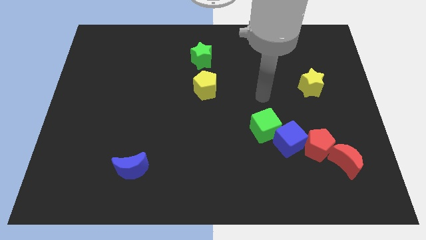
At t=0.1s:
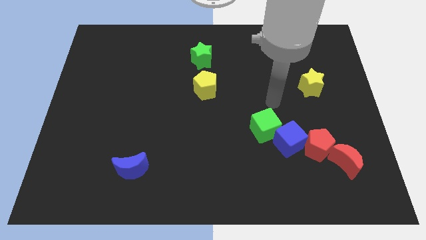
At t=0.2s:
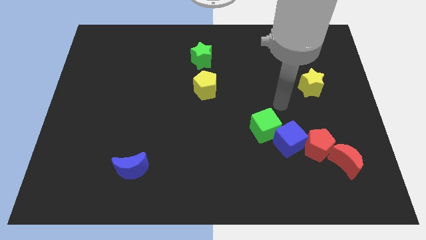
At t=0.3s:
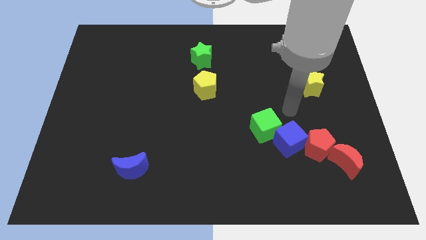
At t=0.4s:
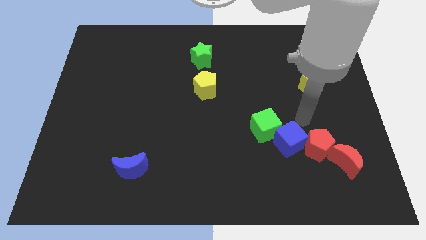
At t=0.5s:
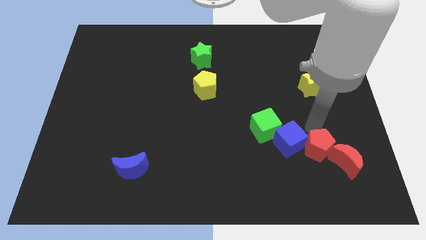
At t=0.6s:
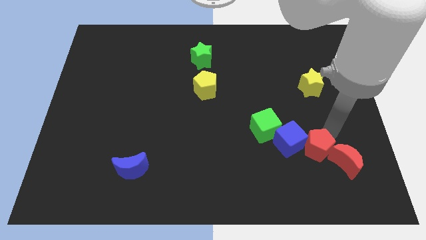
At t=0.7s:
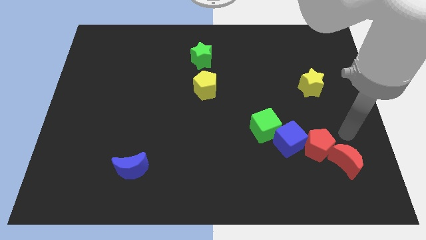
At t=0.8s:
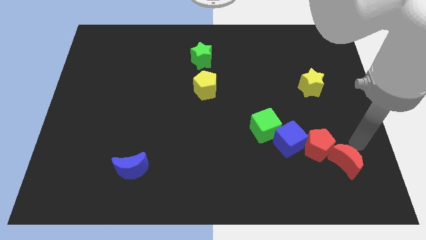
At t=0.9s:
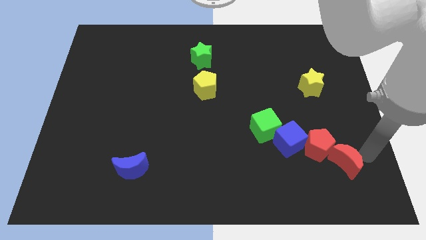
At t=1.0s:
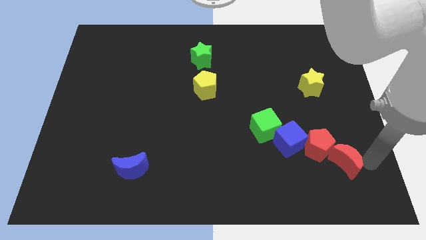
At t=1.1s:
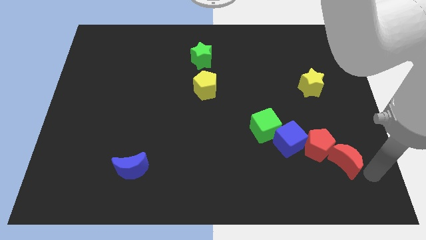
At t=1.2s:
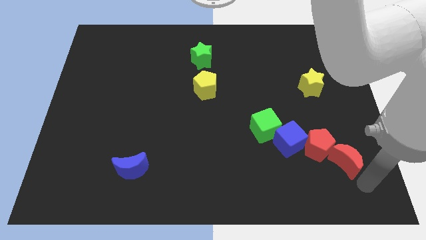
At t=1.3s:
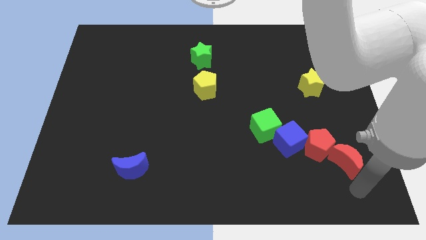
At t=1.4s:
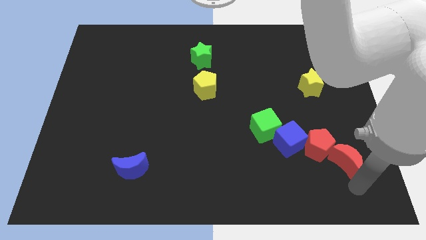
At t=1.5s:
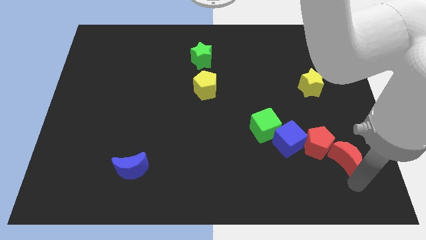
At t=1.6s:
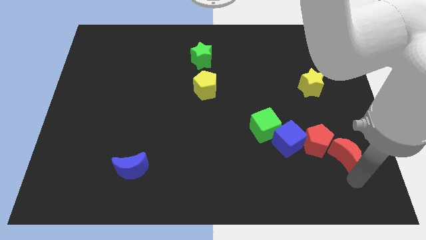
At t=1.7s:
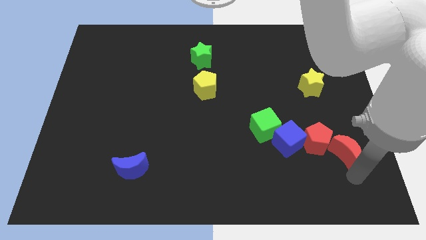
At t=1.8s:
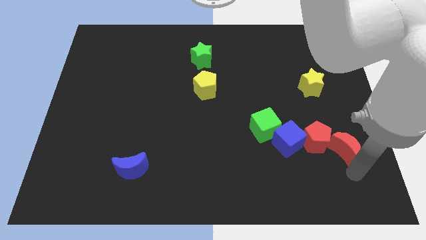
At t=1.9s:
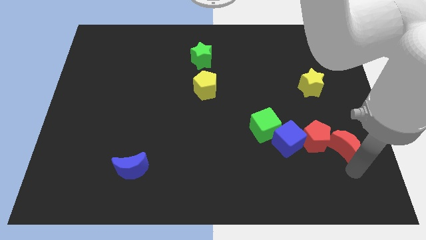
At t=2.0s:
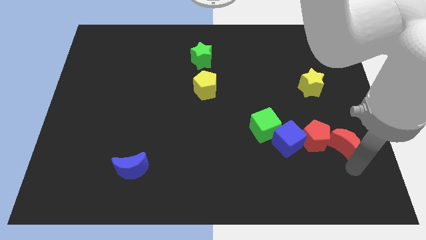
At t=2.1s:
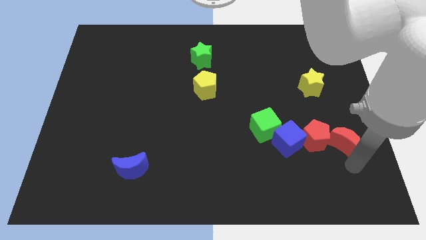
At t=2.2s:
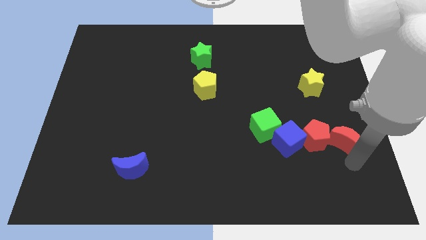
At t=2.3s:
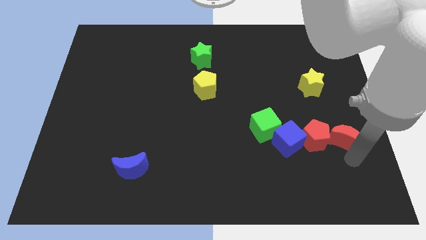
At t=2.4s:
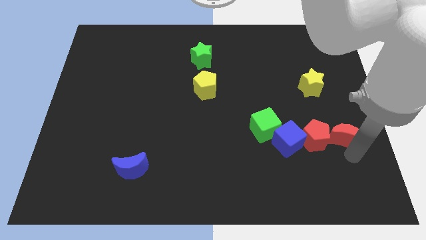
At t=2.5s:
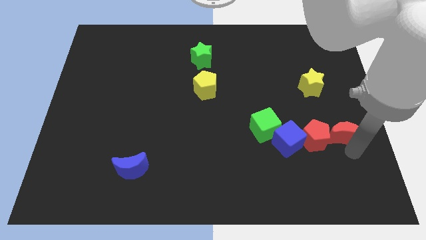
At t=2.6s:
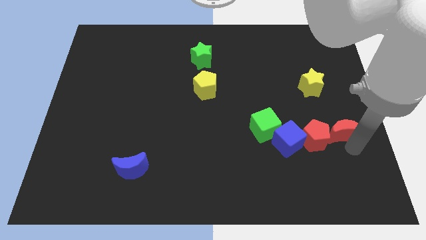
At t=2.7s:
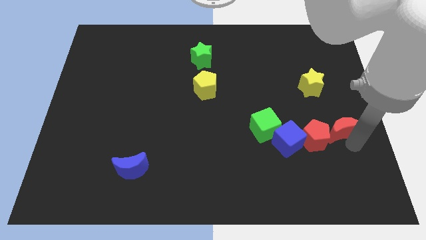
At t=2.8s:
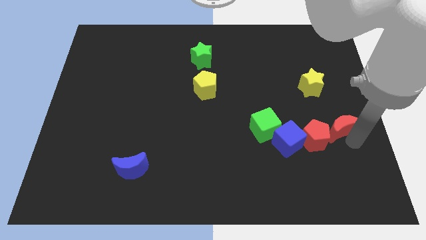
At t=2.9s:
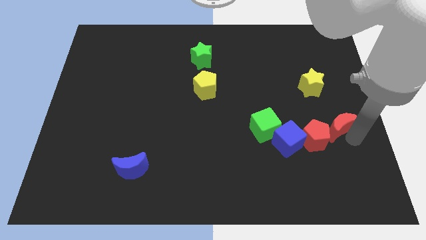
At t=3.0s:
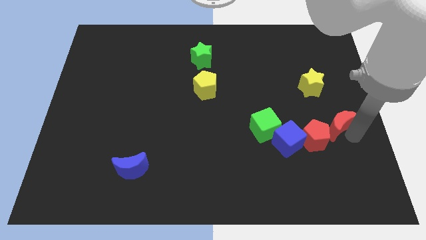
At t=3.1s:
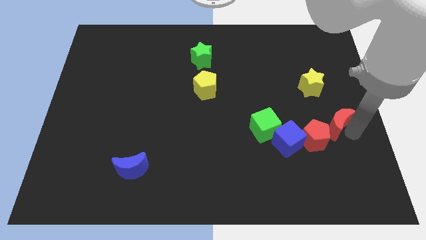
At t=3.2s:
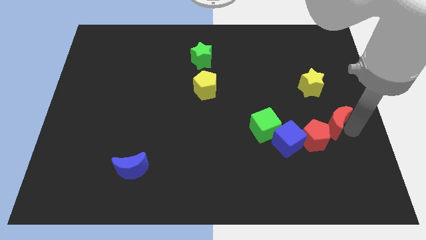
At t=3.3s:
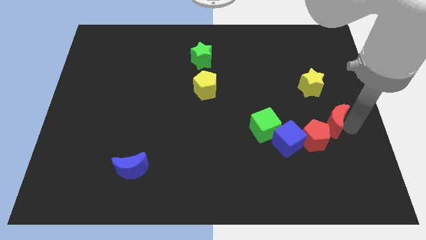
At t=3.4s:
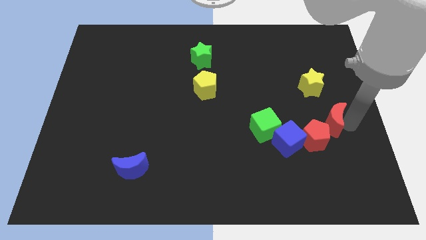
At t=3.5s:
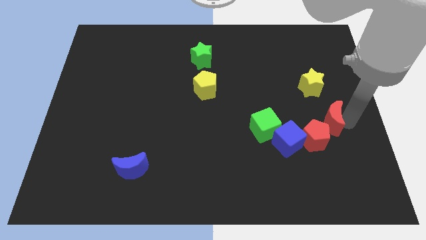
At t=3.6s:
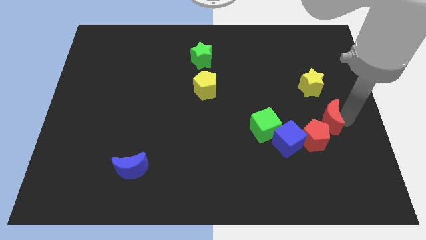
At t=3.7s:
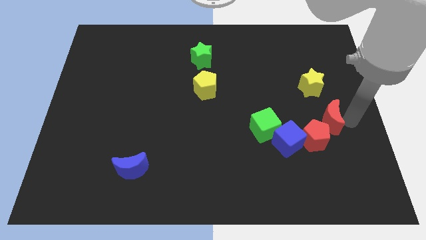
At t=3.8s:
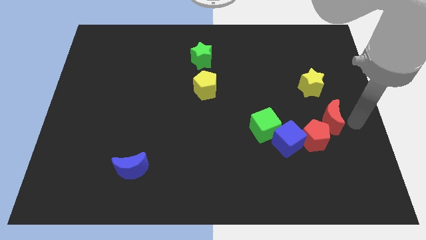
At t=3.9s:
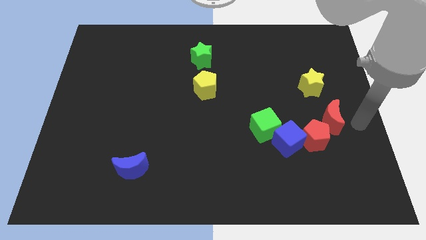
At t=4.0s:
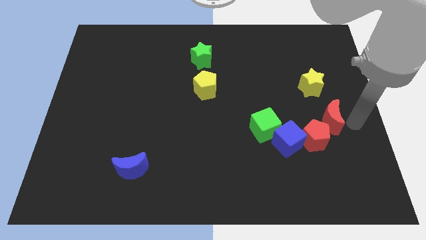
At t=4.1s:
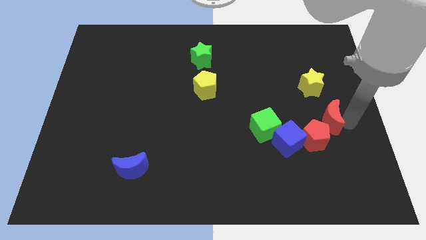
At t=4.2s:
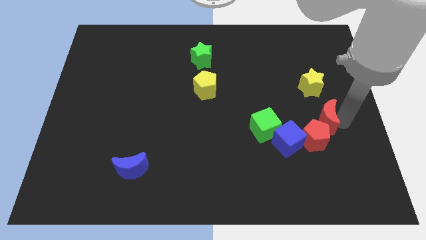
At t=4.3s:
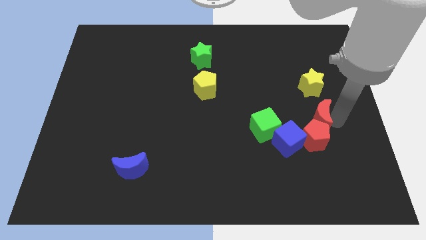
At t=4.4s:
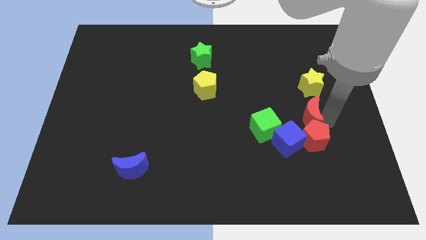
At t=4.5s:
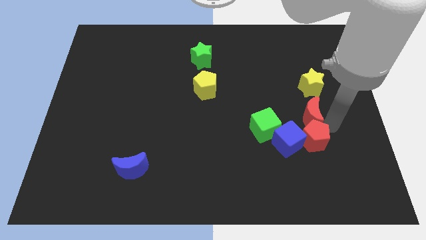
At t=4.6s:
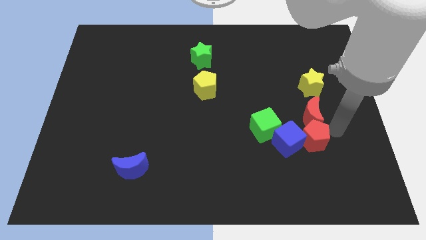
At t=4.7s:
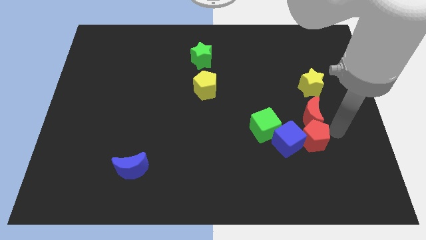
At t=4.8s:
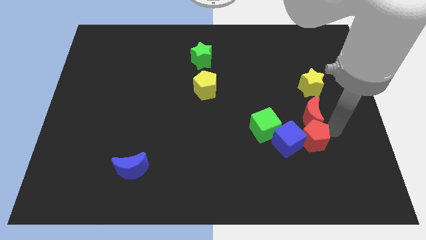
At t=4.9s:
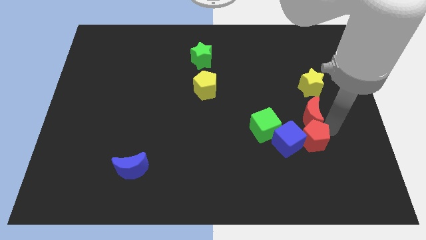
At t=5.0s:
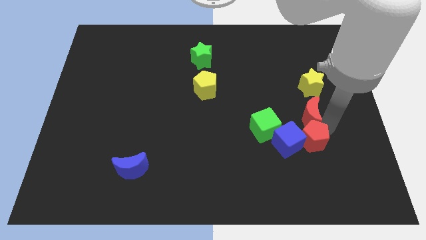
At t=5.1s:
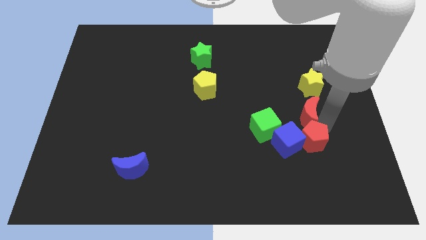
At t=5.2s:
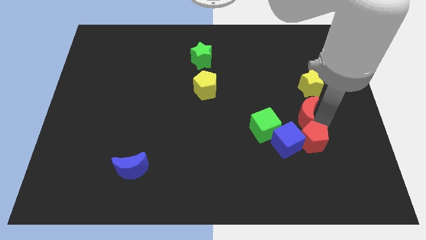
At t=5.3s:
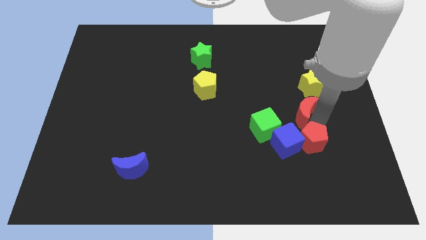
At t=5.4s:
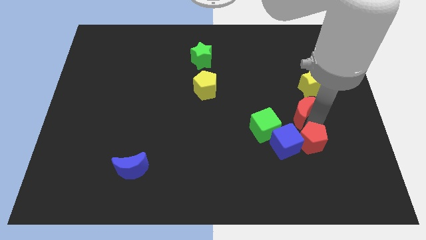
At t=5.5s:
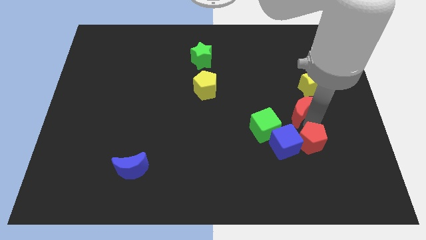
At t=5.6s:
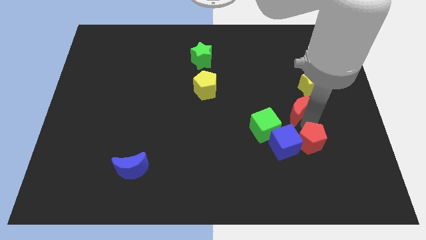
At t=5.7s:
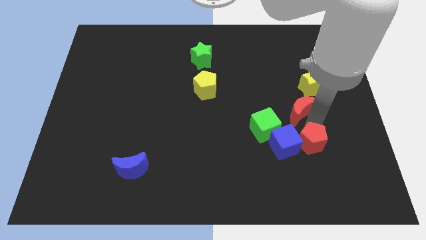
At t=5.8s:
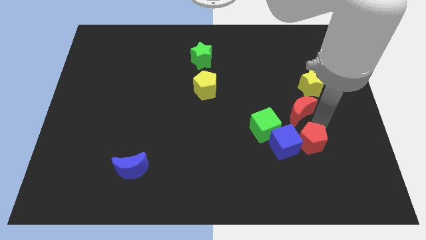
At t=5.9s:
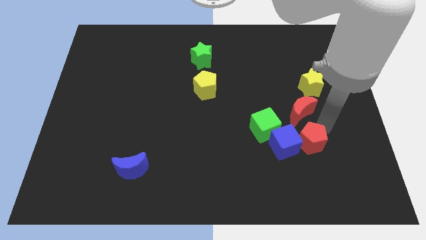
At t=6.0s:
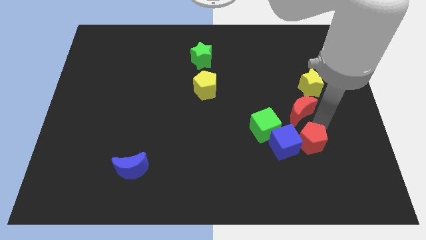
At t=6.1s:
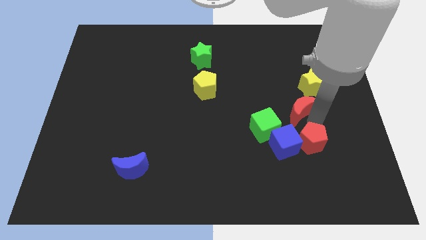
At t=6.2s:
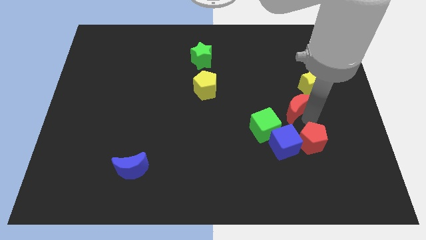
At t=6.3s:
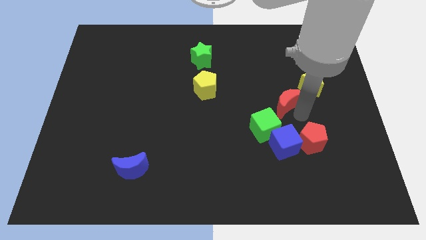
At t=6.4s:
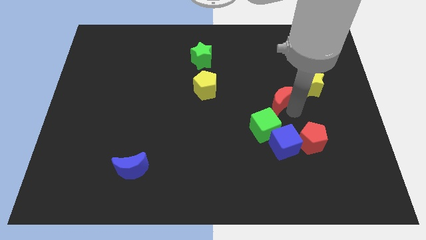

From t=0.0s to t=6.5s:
put the red moon left of the yellow star

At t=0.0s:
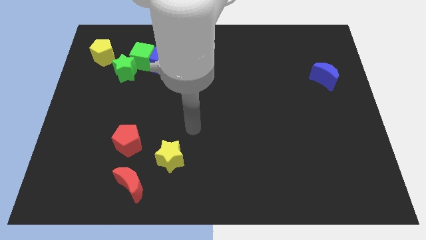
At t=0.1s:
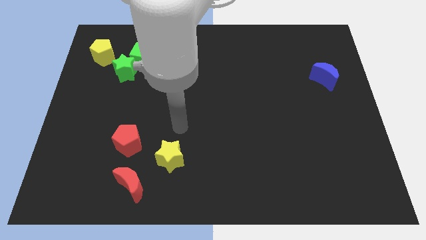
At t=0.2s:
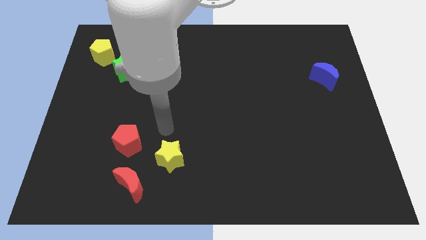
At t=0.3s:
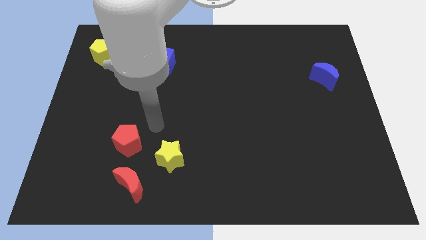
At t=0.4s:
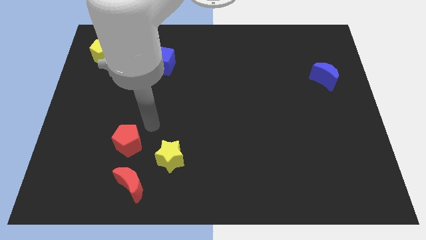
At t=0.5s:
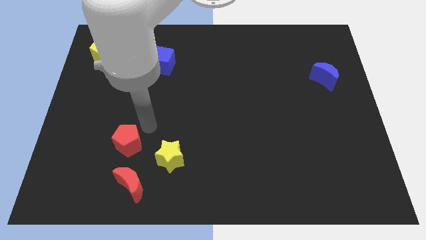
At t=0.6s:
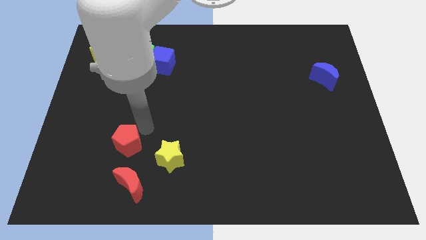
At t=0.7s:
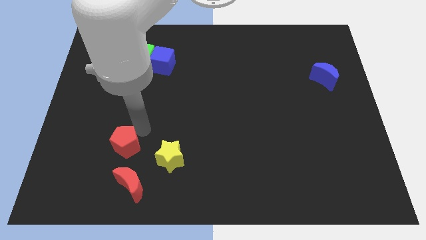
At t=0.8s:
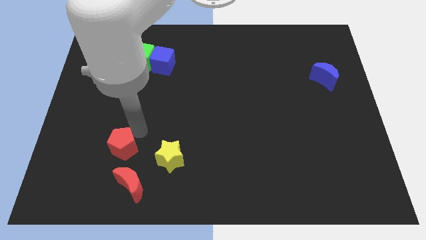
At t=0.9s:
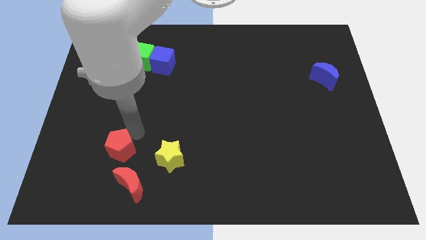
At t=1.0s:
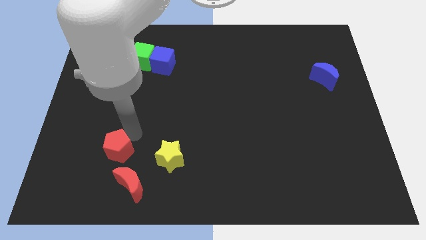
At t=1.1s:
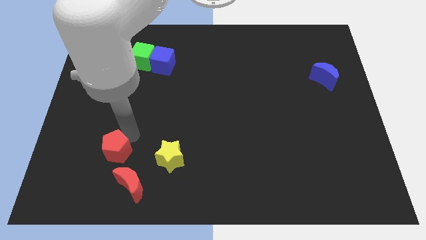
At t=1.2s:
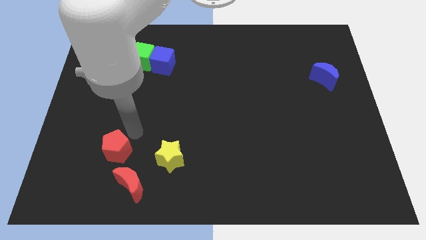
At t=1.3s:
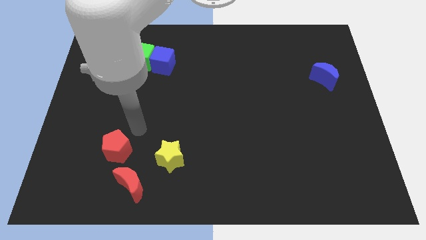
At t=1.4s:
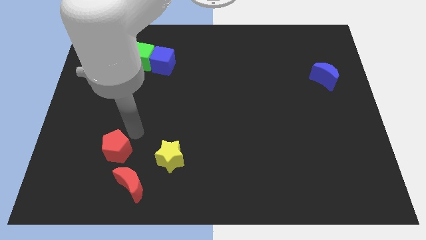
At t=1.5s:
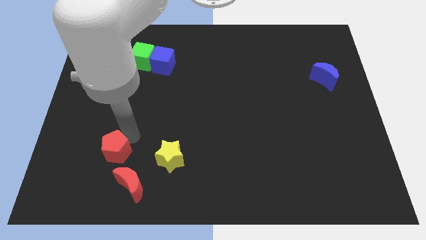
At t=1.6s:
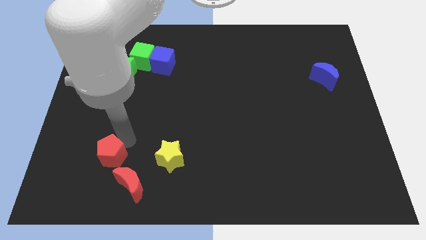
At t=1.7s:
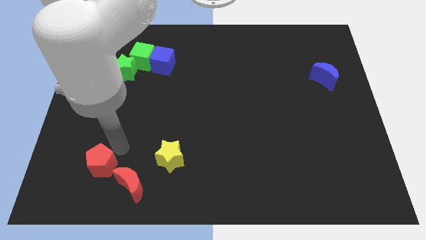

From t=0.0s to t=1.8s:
move the red pentagon just left of the red moon
